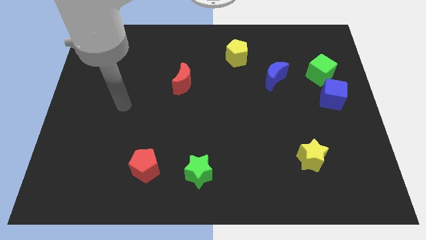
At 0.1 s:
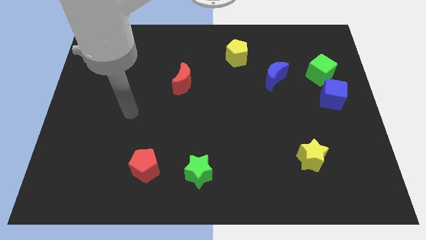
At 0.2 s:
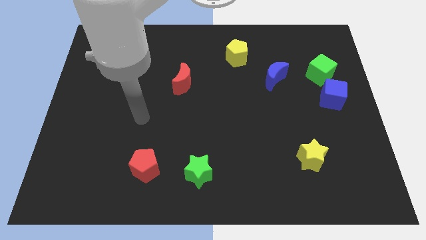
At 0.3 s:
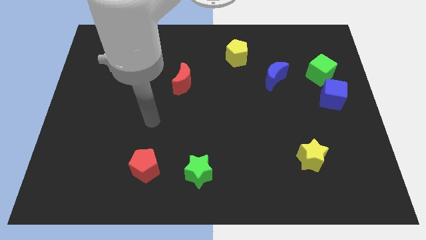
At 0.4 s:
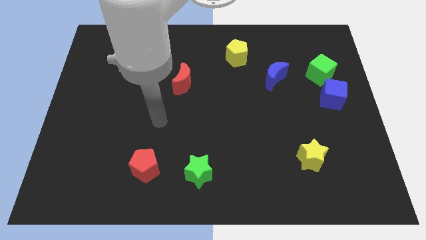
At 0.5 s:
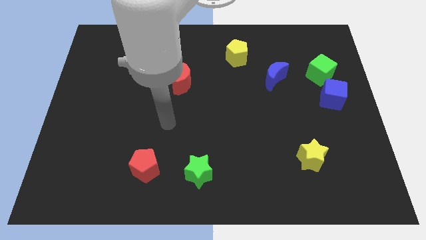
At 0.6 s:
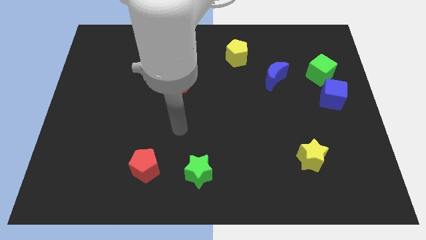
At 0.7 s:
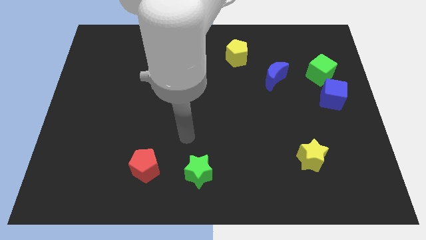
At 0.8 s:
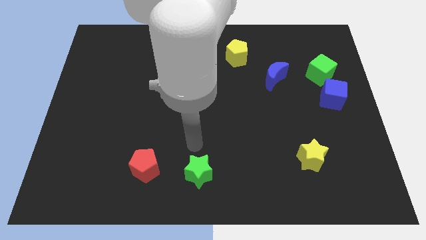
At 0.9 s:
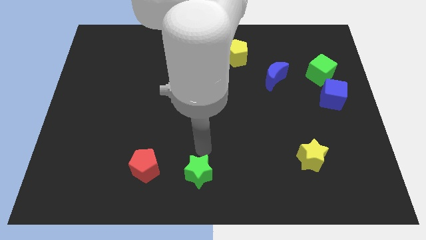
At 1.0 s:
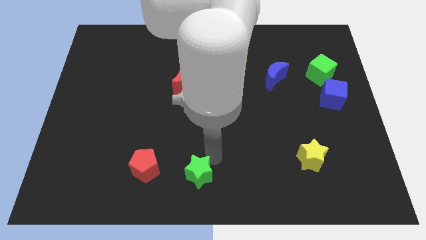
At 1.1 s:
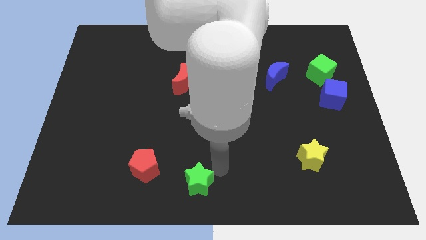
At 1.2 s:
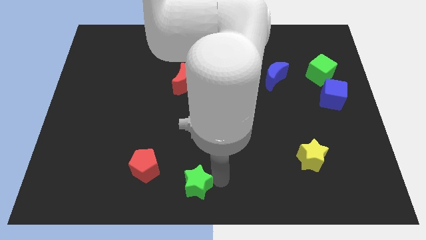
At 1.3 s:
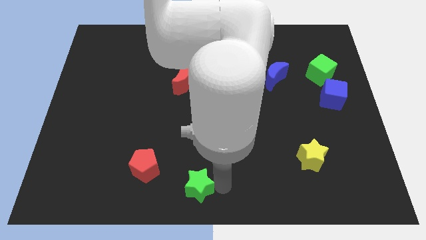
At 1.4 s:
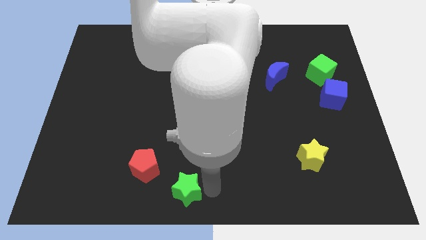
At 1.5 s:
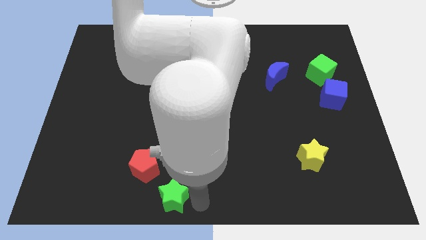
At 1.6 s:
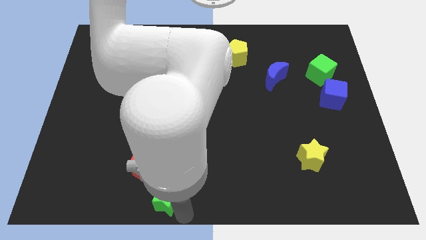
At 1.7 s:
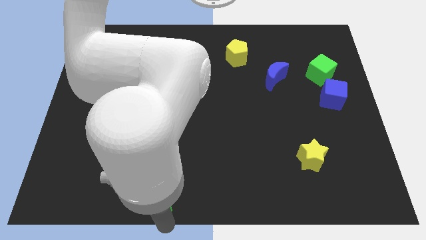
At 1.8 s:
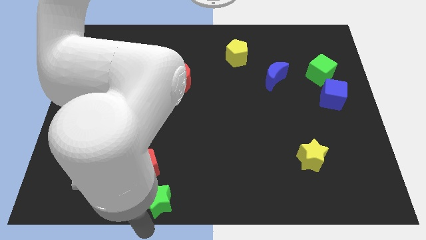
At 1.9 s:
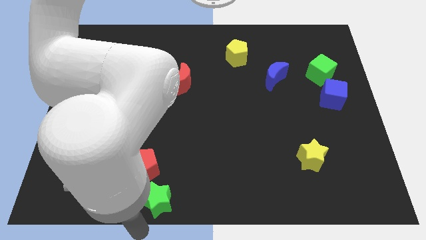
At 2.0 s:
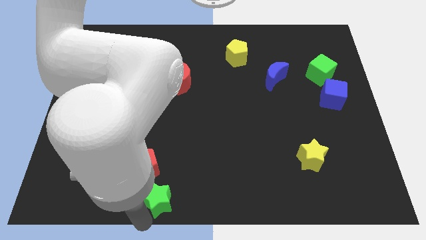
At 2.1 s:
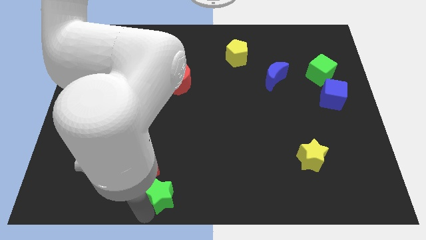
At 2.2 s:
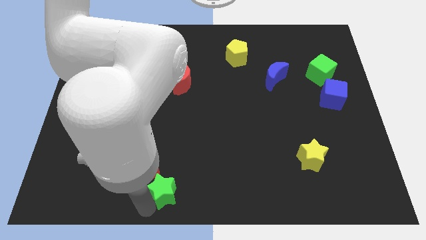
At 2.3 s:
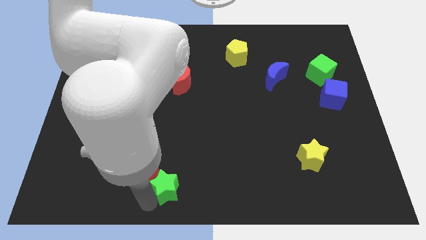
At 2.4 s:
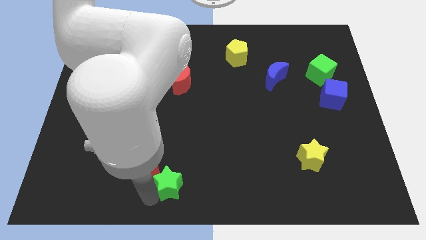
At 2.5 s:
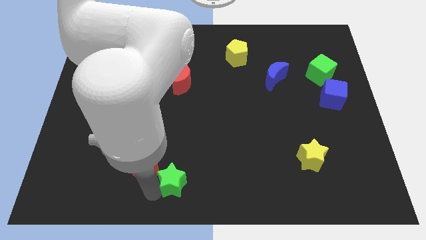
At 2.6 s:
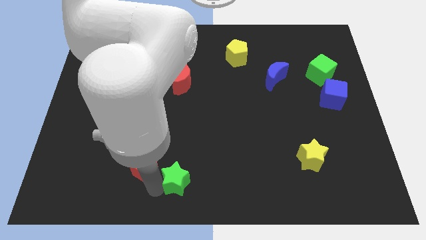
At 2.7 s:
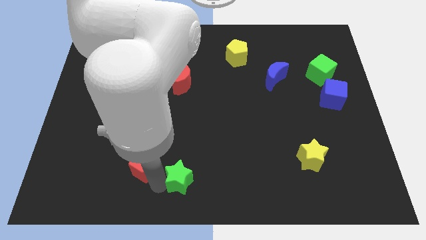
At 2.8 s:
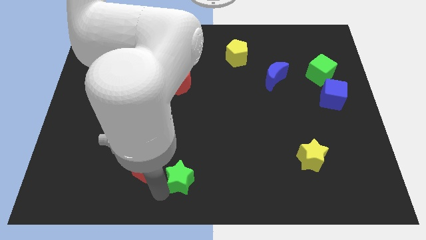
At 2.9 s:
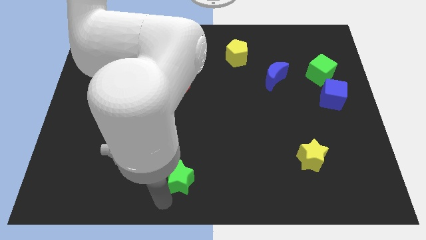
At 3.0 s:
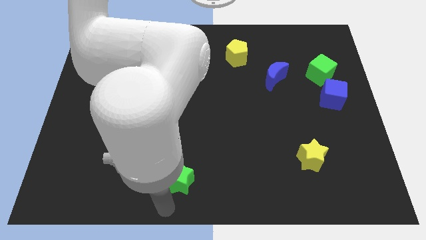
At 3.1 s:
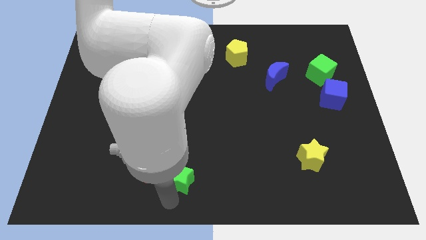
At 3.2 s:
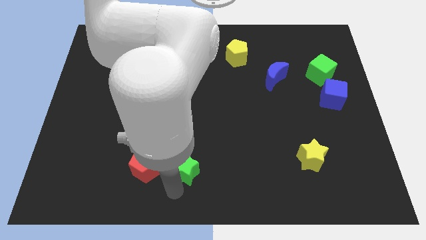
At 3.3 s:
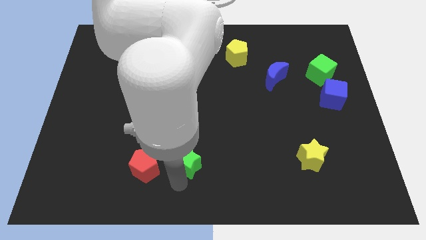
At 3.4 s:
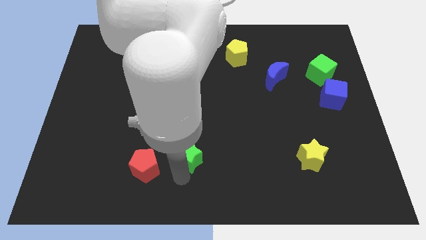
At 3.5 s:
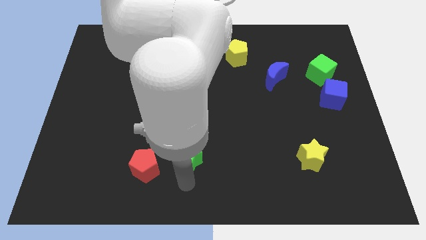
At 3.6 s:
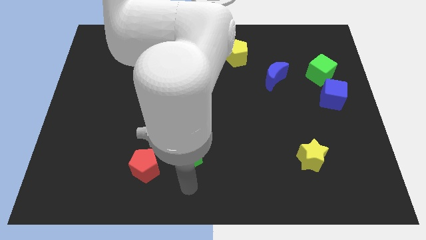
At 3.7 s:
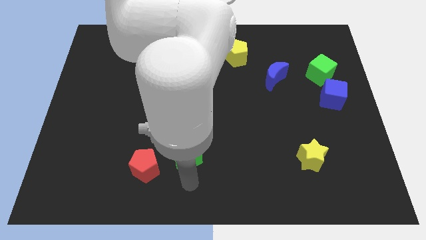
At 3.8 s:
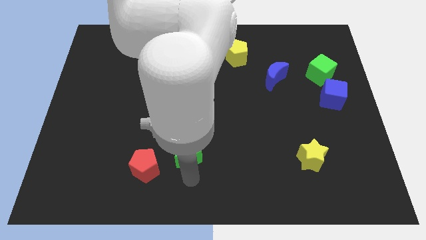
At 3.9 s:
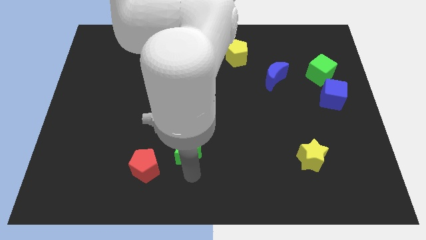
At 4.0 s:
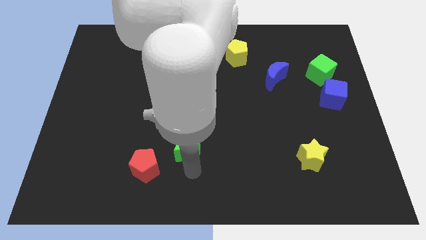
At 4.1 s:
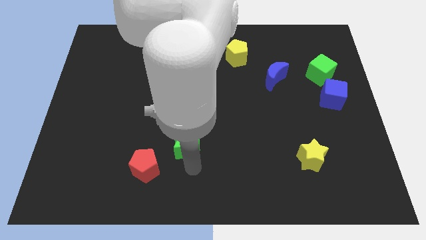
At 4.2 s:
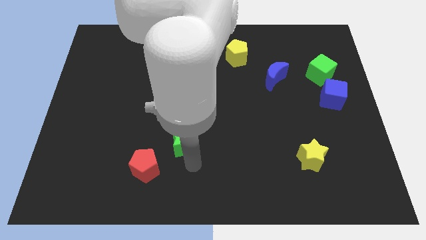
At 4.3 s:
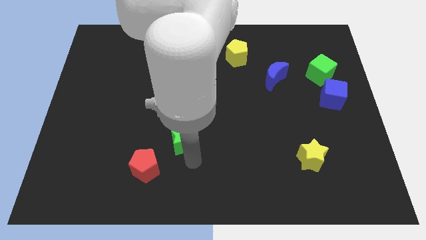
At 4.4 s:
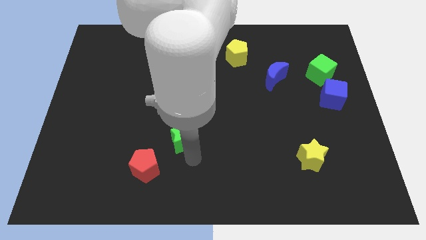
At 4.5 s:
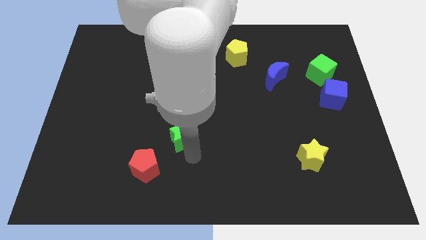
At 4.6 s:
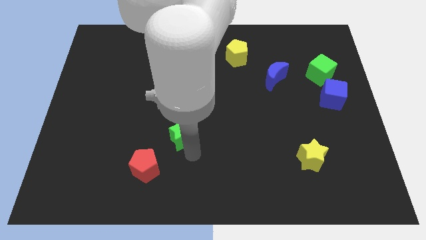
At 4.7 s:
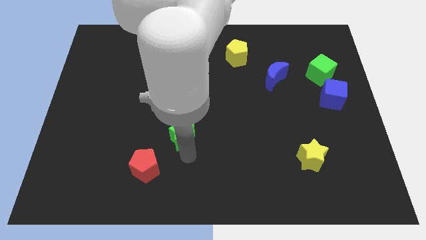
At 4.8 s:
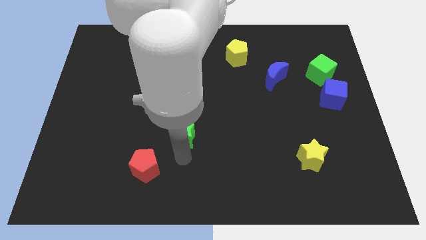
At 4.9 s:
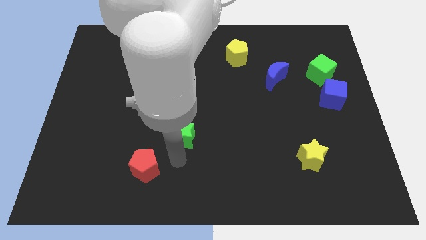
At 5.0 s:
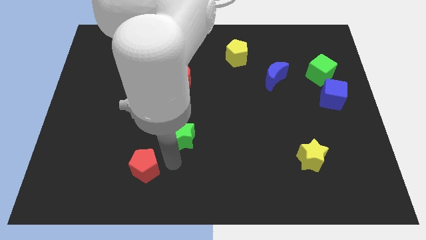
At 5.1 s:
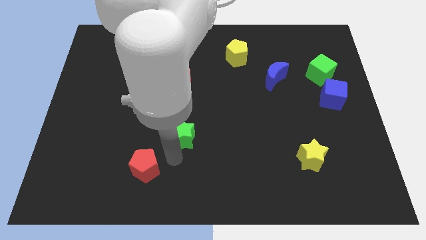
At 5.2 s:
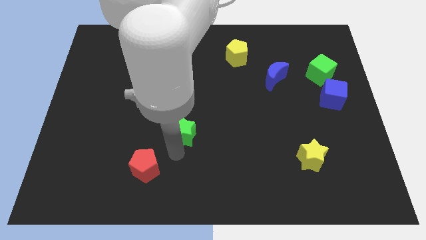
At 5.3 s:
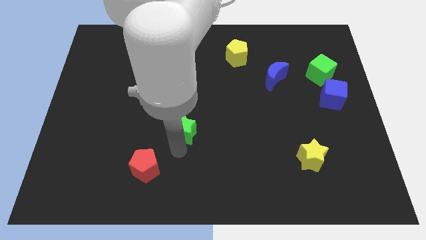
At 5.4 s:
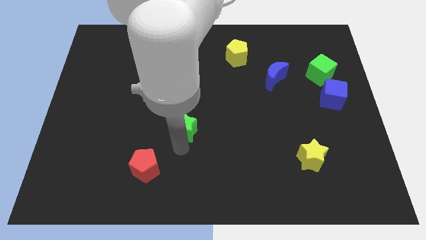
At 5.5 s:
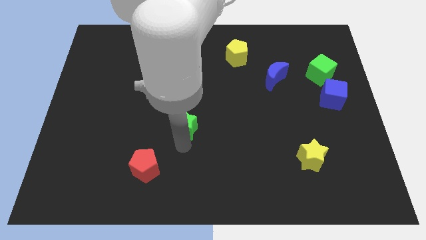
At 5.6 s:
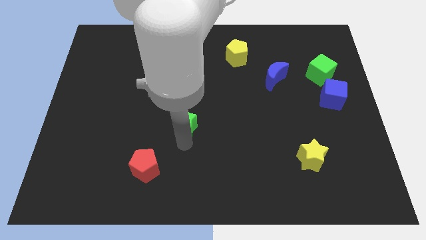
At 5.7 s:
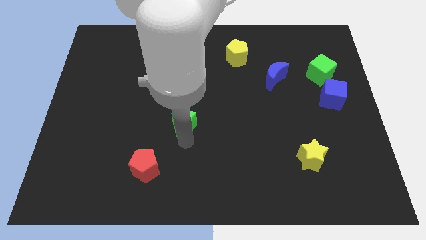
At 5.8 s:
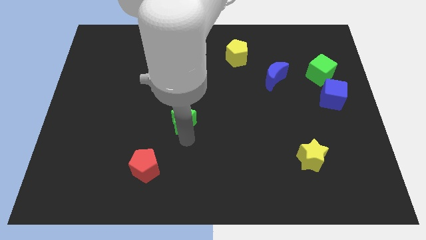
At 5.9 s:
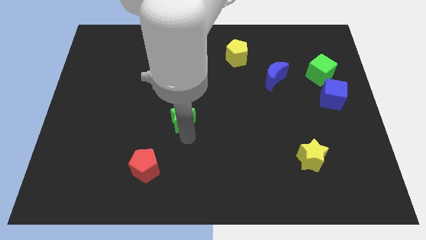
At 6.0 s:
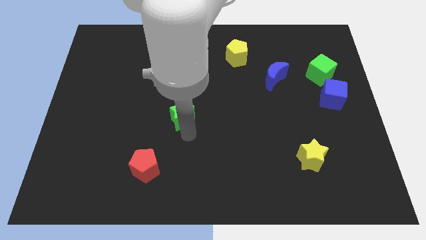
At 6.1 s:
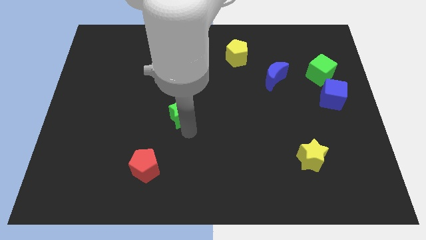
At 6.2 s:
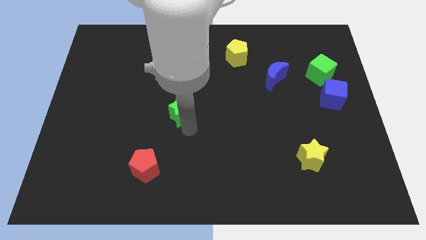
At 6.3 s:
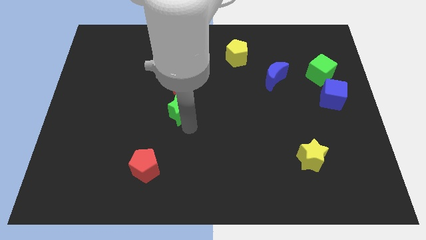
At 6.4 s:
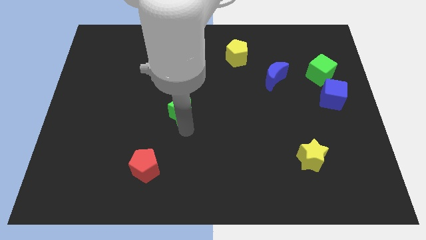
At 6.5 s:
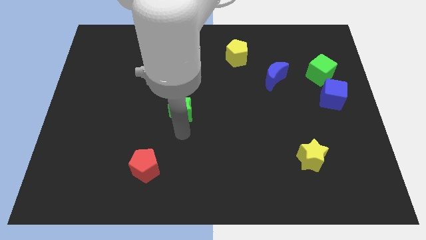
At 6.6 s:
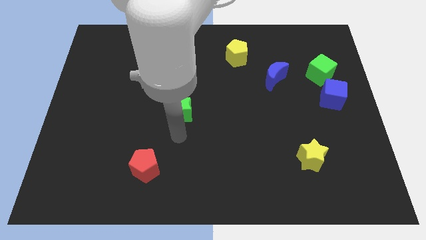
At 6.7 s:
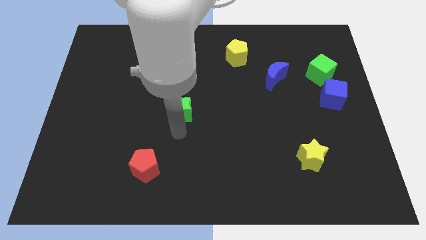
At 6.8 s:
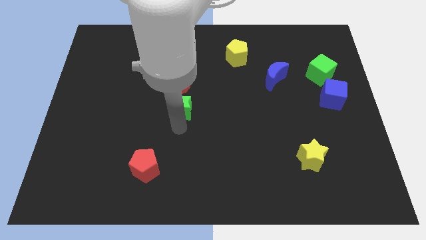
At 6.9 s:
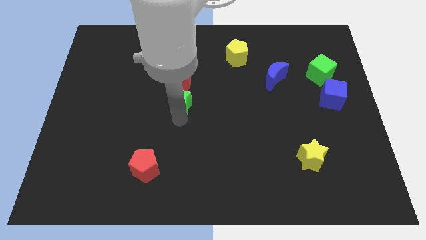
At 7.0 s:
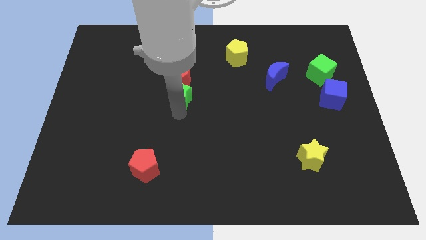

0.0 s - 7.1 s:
push the green star towards the red moon

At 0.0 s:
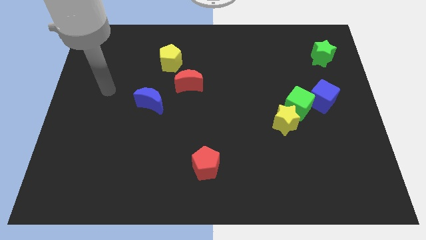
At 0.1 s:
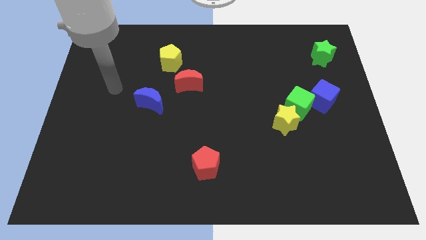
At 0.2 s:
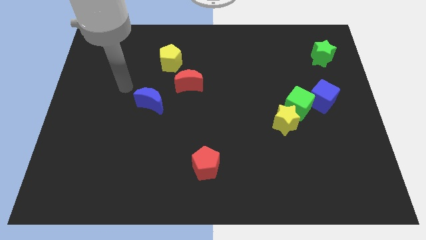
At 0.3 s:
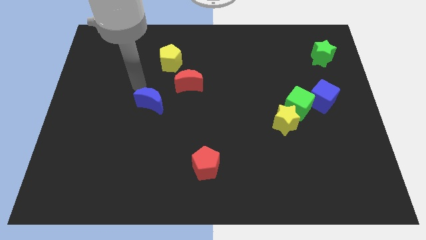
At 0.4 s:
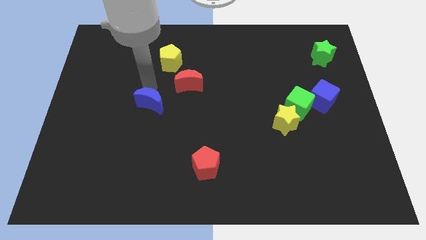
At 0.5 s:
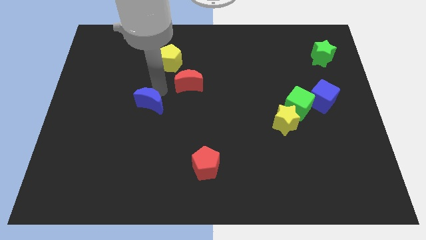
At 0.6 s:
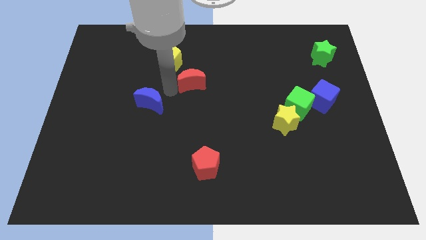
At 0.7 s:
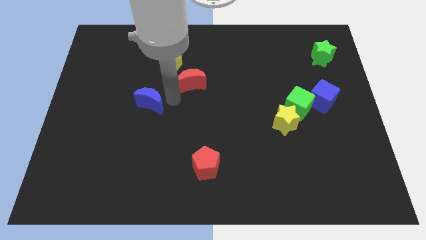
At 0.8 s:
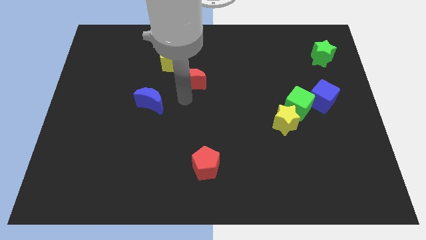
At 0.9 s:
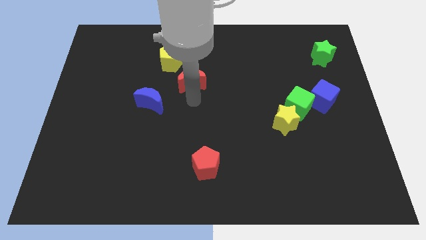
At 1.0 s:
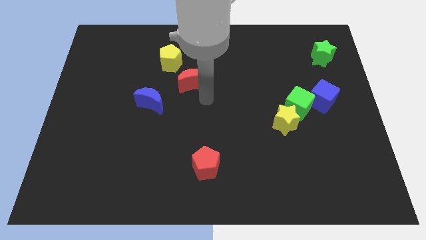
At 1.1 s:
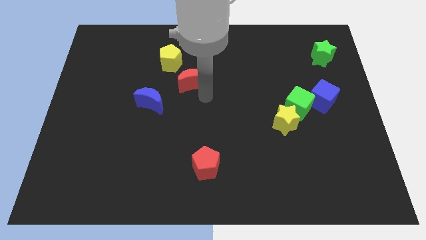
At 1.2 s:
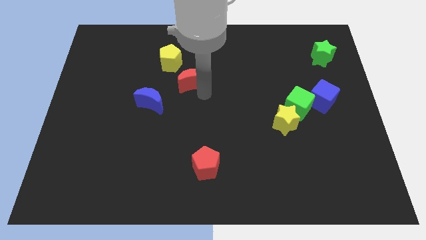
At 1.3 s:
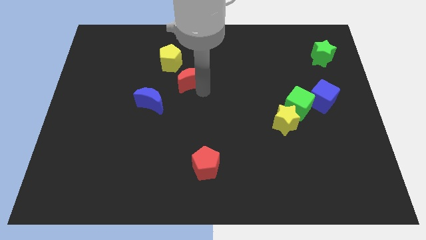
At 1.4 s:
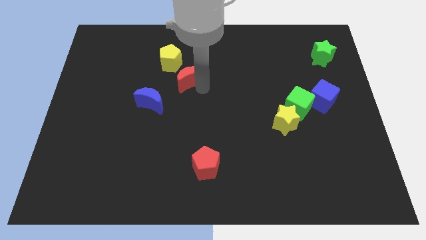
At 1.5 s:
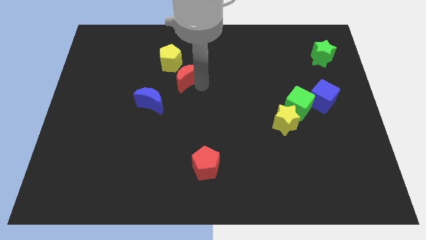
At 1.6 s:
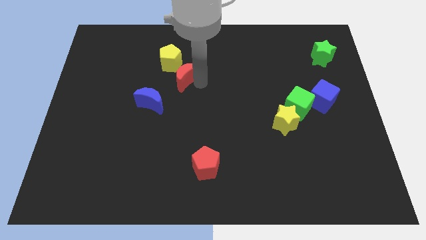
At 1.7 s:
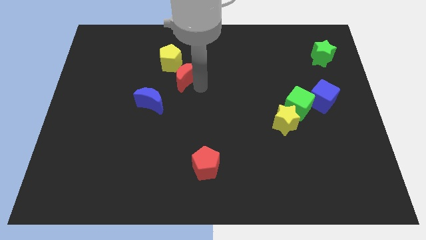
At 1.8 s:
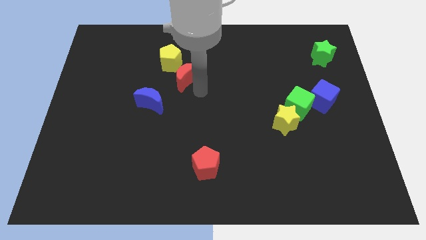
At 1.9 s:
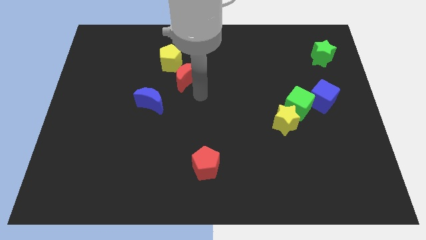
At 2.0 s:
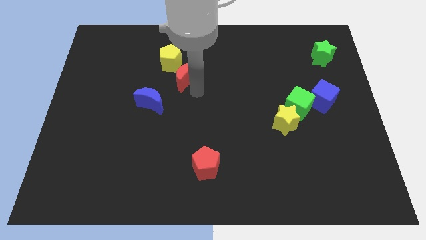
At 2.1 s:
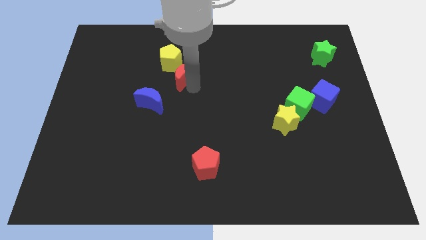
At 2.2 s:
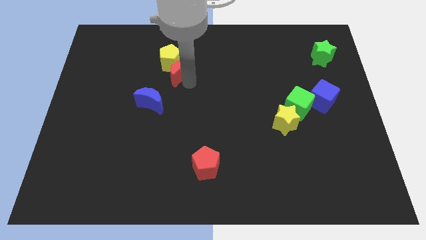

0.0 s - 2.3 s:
move the red moon towards the yellow pentagon
